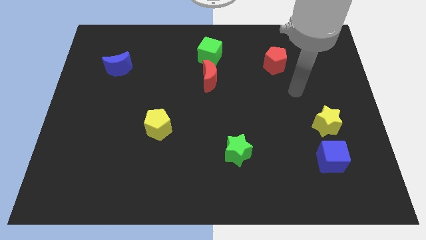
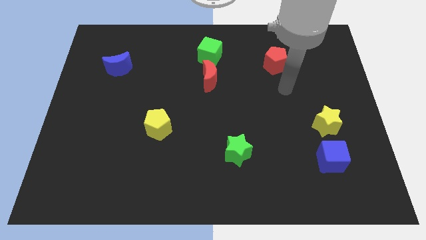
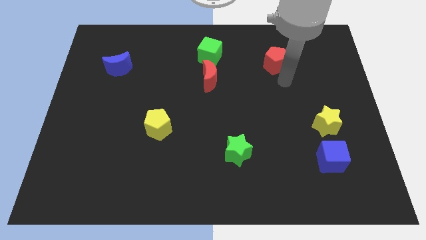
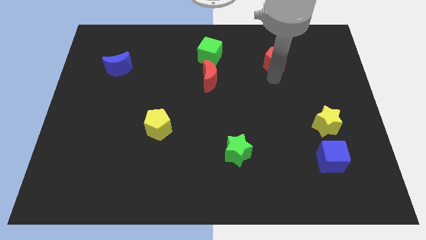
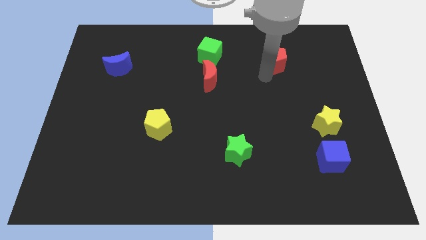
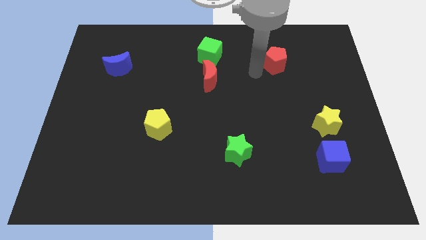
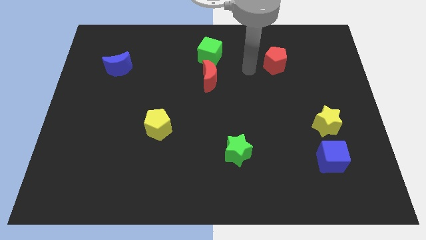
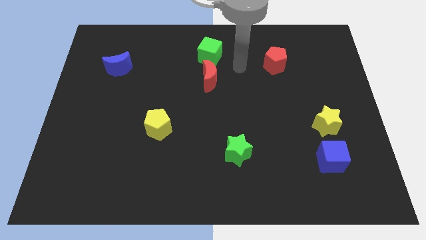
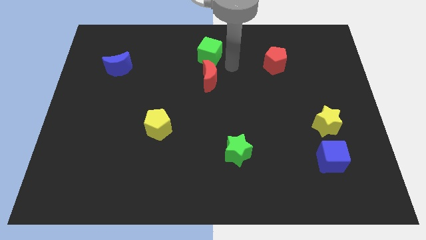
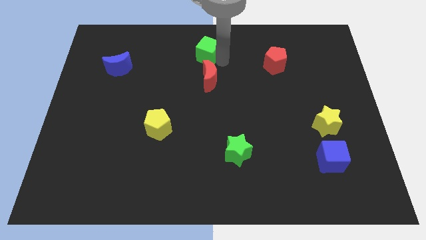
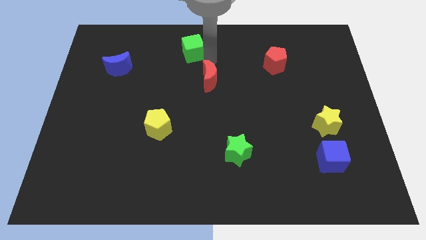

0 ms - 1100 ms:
pull the red moon apart from the green cube

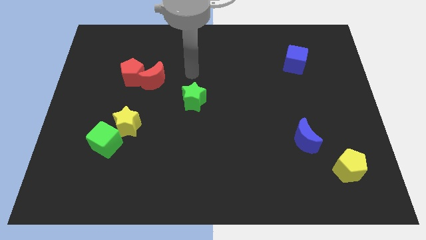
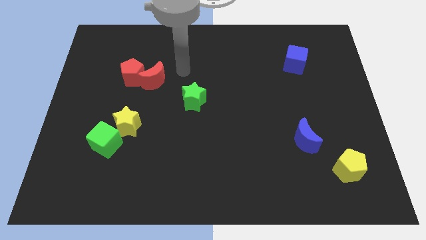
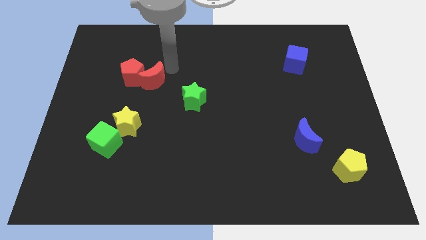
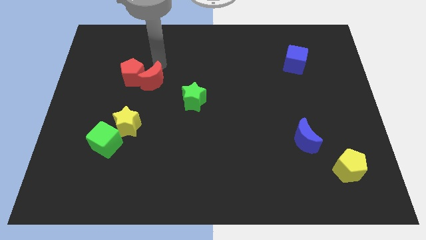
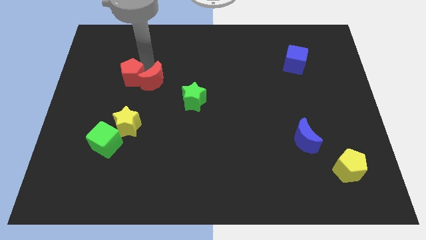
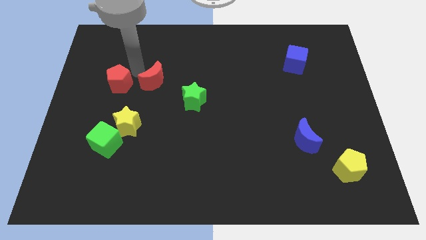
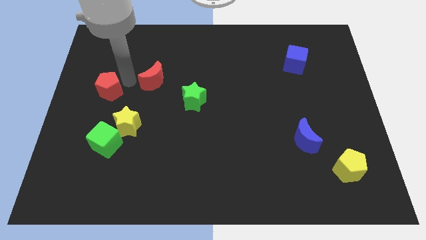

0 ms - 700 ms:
pull the red moon apart from the red pentagon

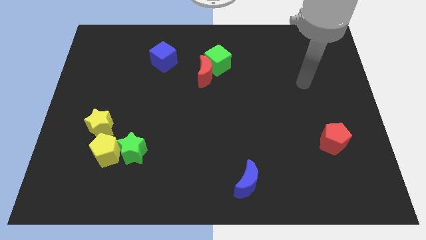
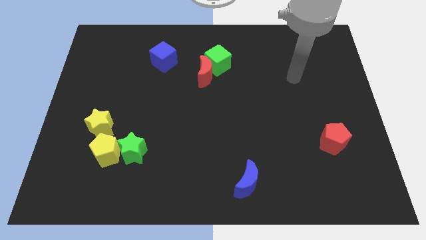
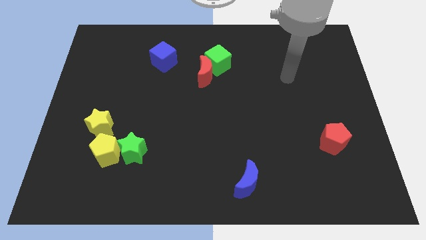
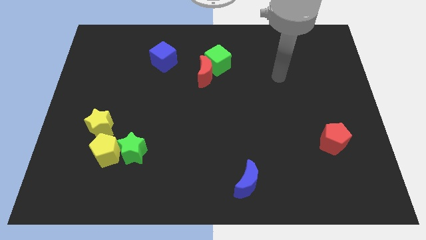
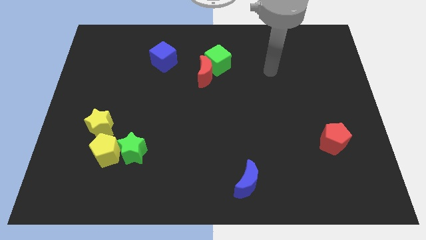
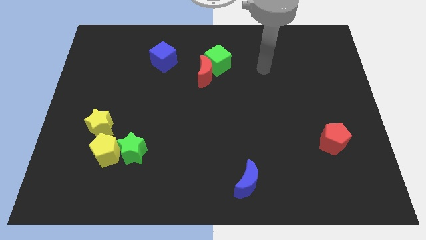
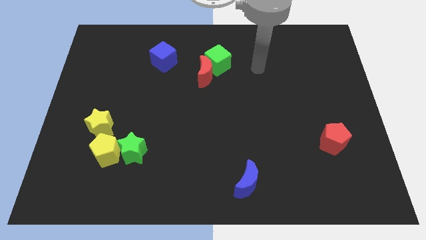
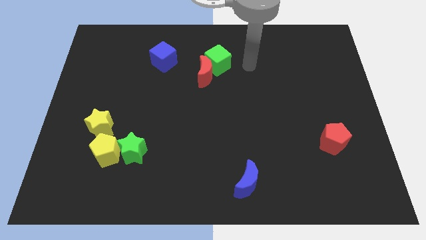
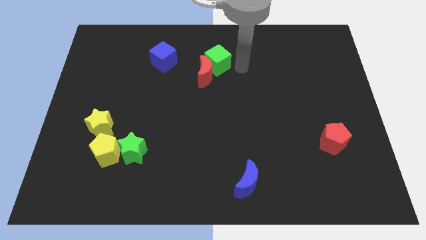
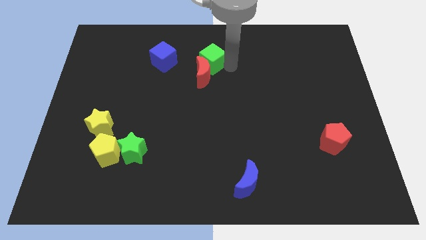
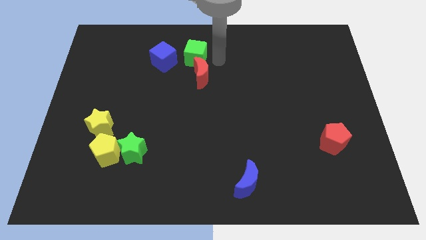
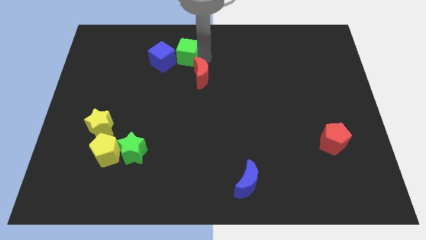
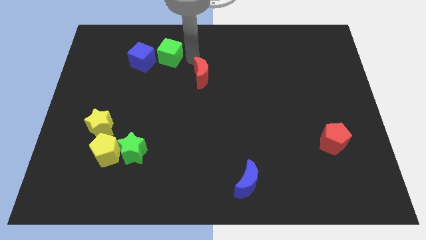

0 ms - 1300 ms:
separate the red moon from the green cube

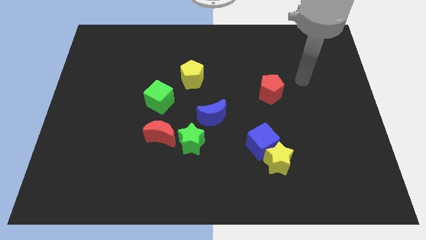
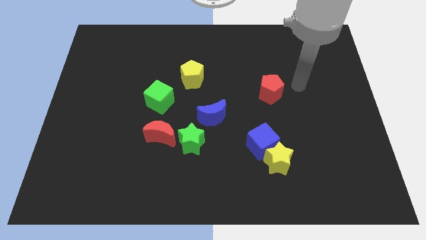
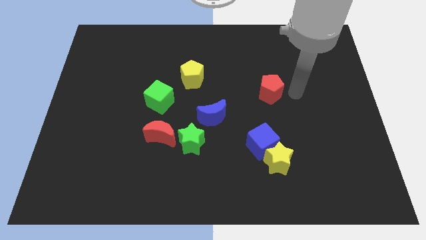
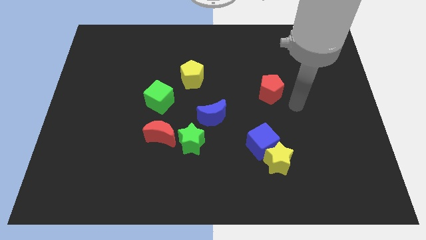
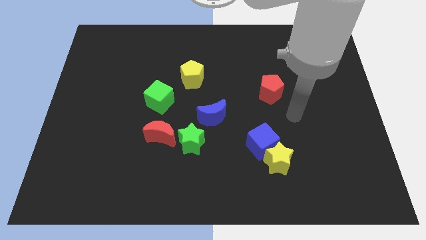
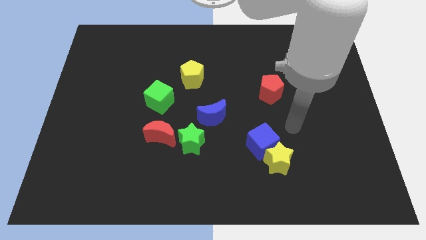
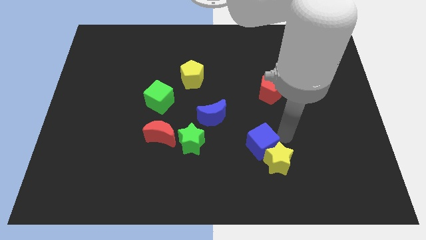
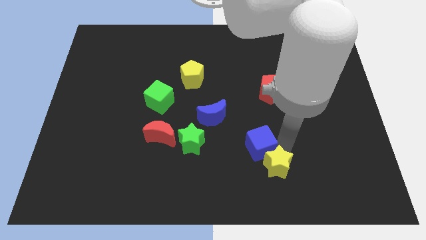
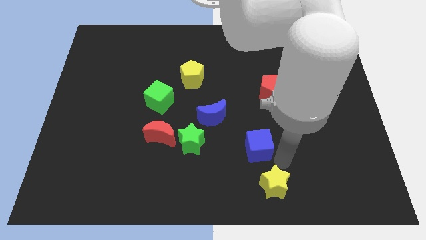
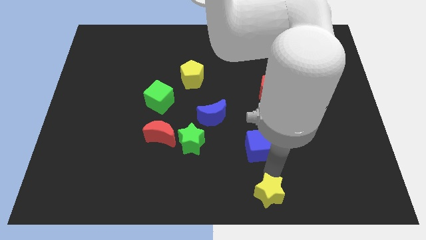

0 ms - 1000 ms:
move the blue cube away from the yellow star

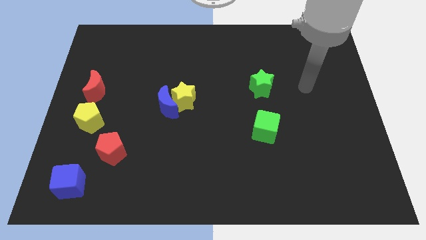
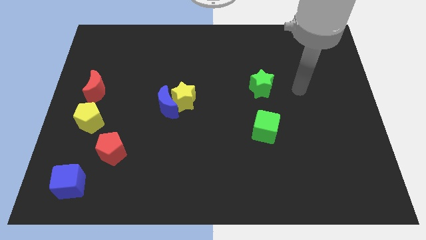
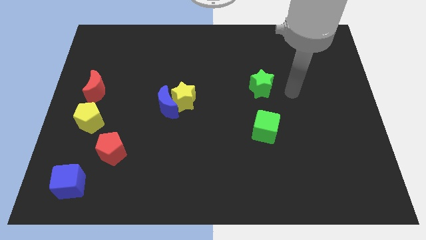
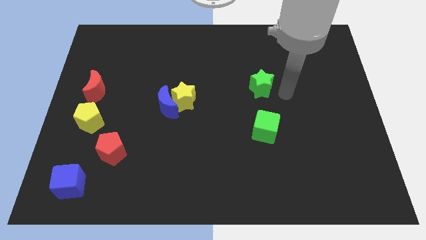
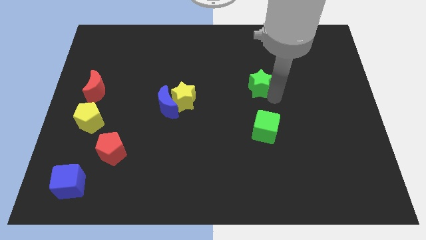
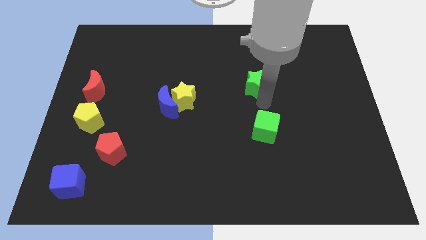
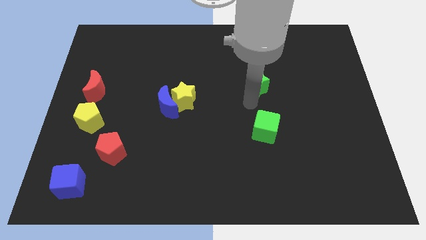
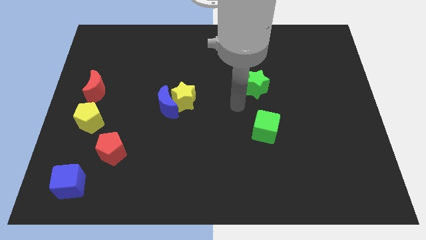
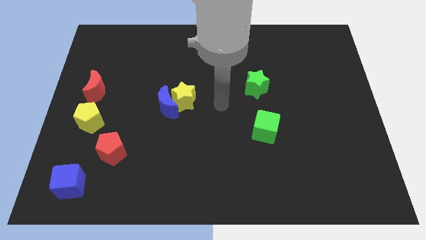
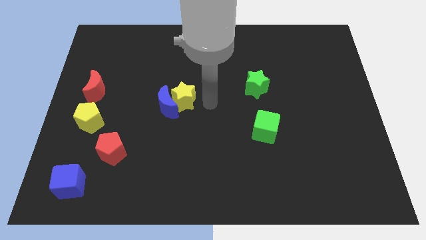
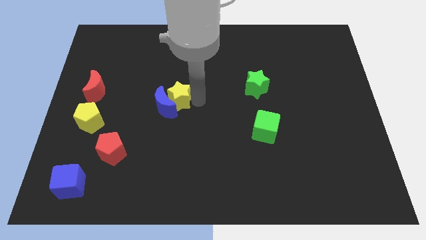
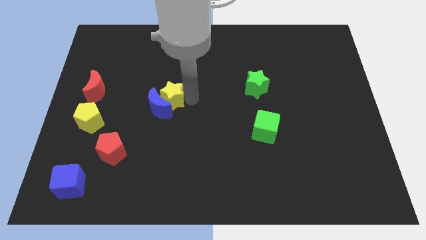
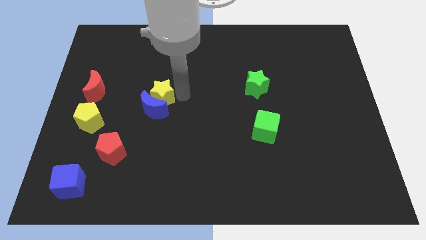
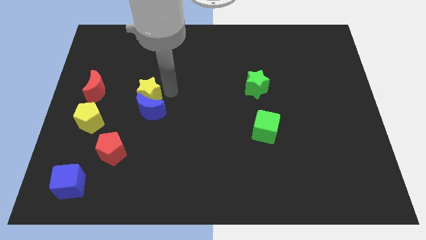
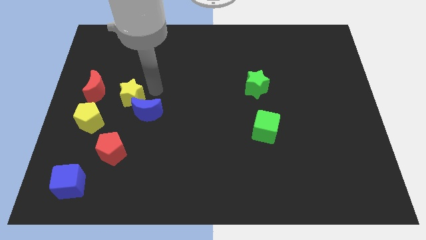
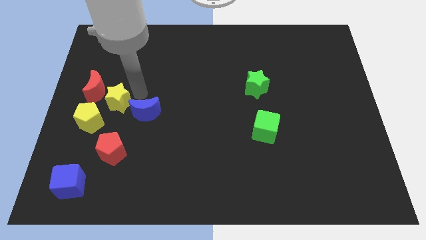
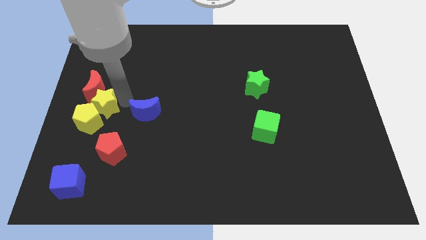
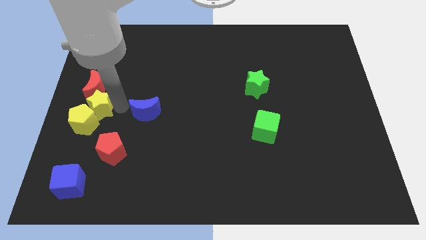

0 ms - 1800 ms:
move the blue moon away from the yellow star

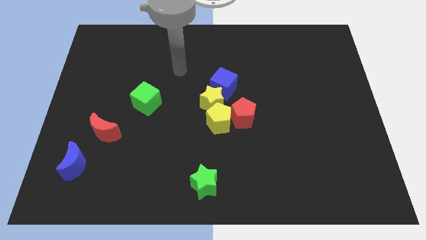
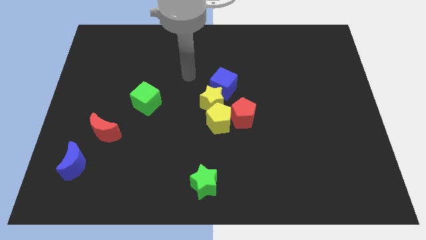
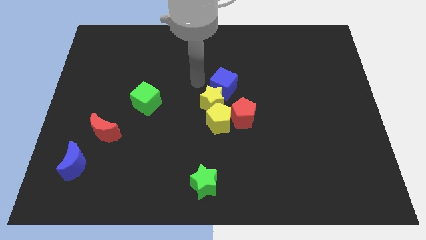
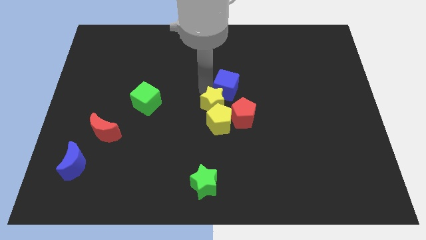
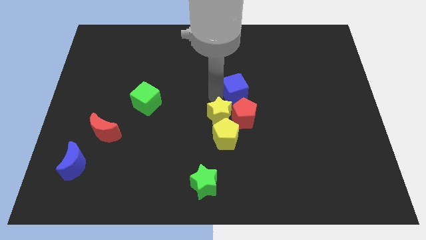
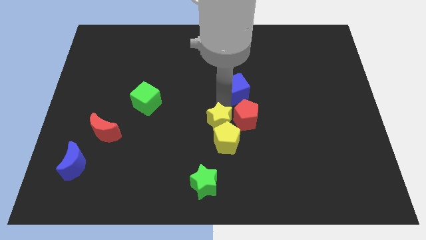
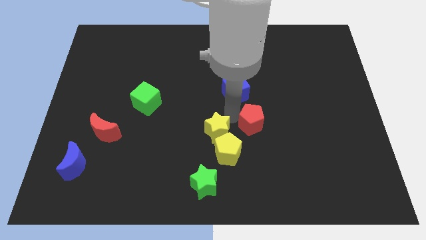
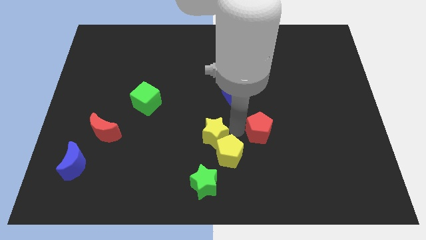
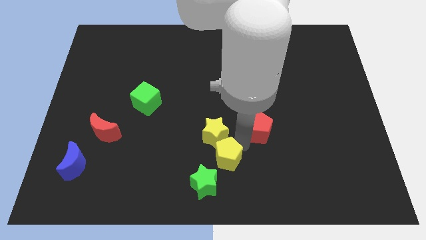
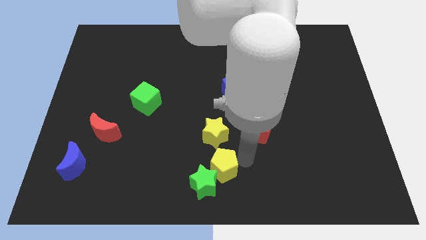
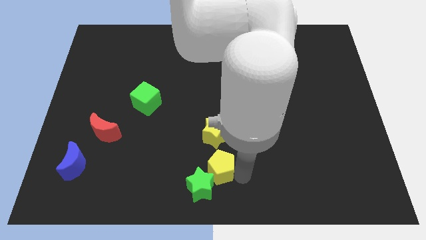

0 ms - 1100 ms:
pull the yellow pentagon apart from the red pentagon and yellow star

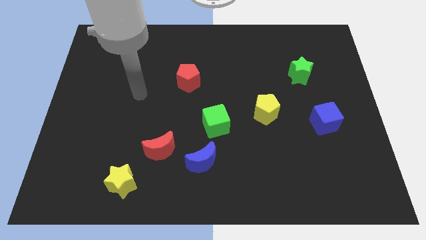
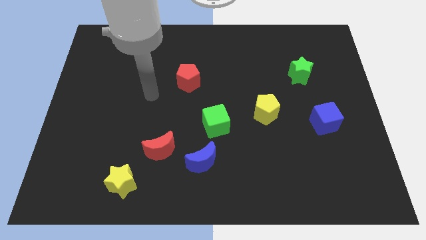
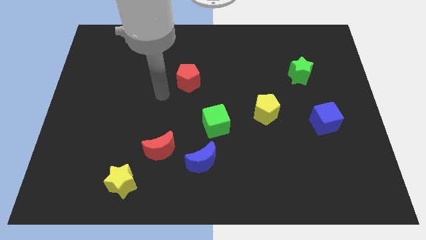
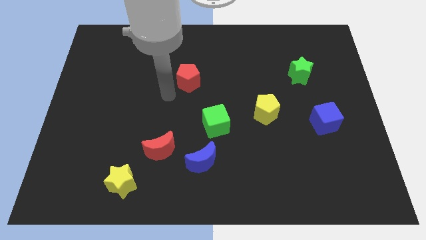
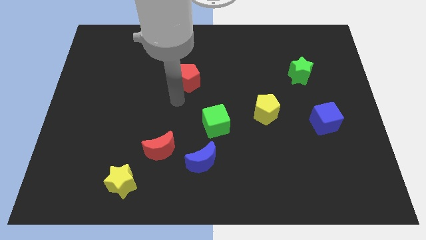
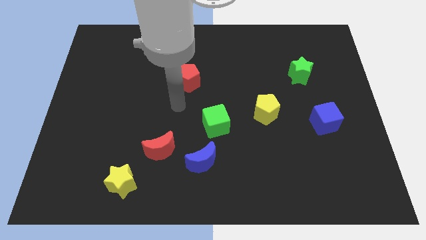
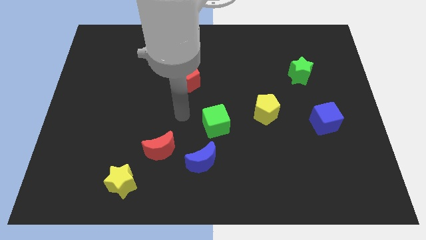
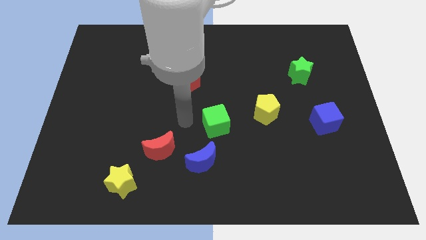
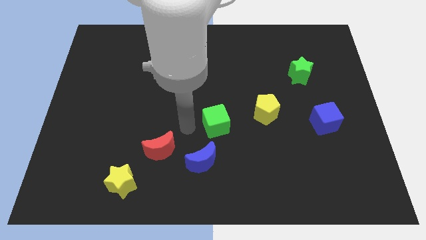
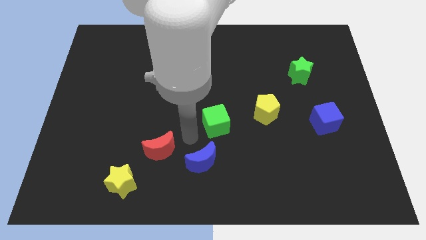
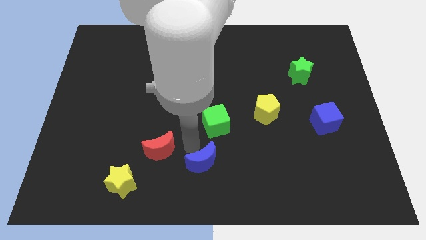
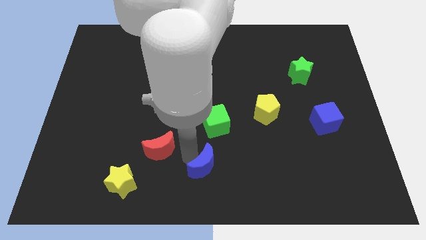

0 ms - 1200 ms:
separate the red moon from the blue moon

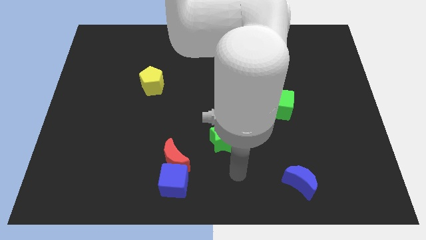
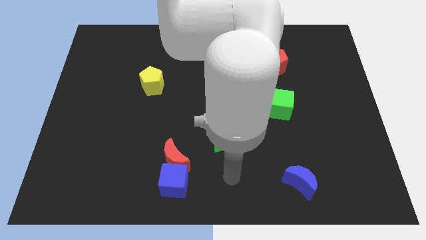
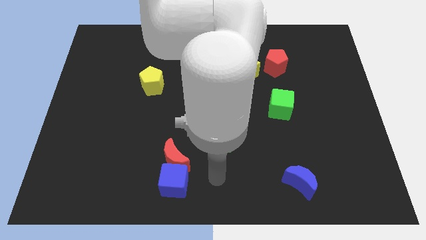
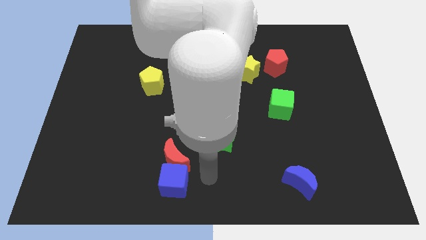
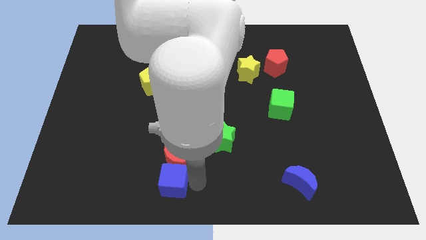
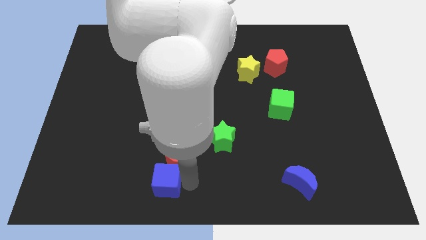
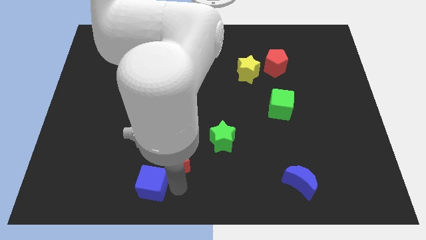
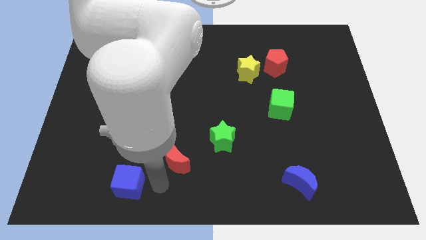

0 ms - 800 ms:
separate the red moon from the blue cube

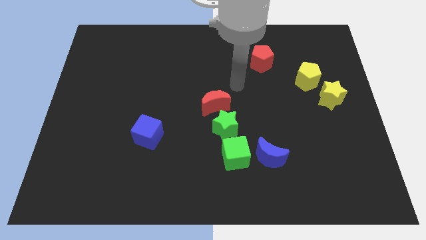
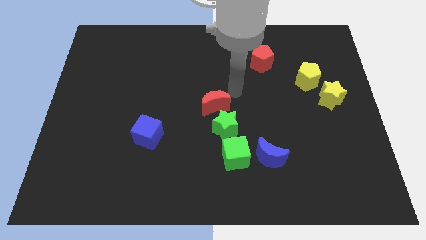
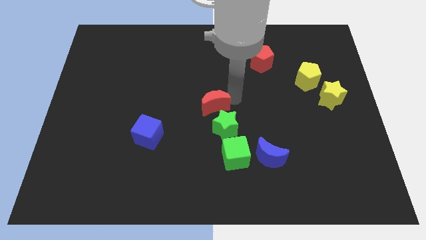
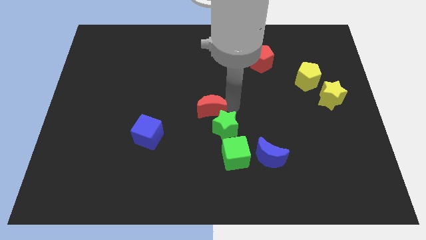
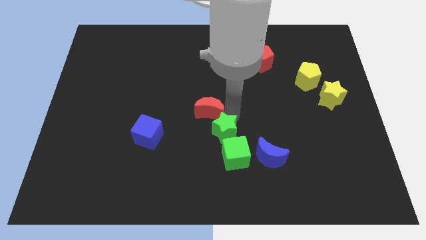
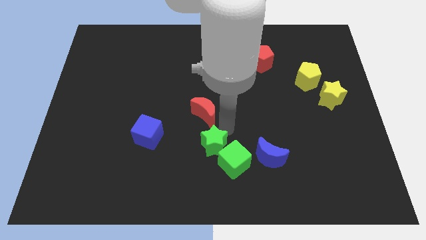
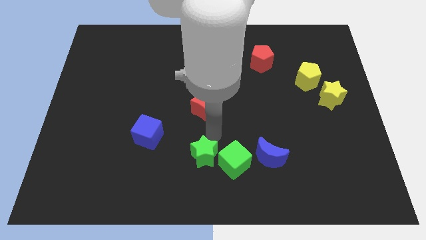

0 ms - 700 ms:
separate the red moon from the green star
